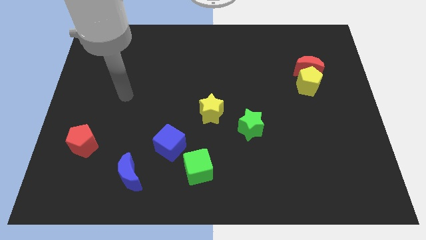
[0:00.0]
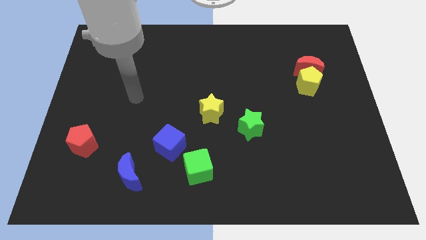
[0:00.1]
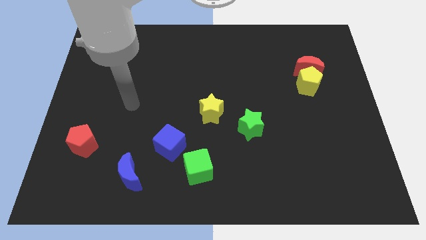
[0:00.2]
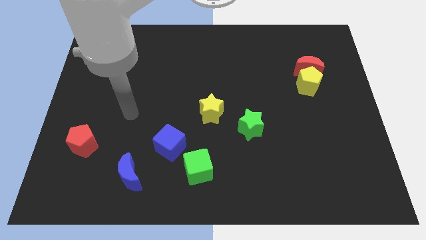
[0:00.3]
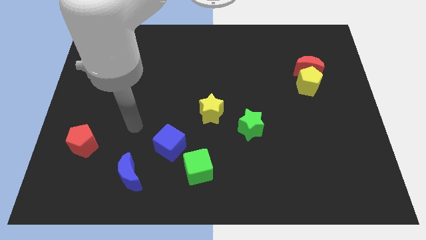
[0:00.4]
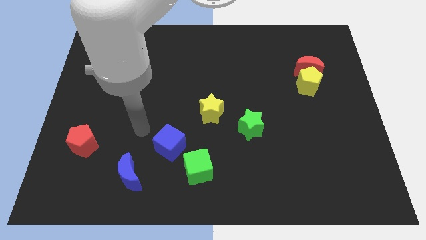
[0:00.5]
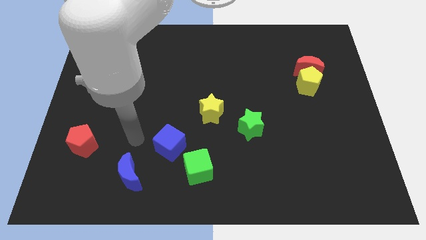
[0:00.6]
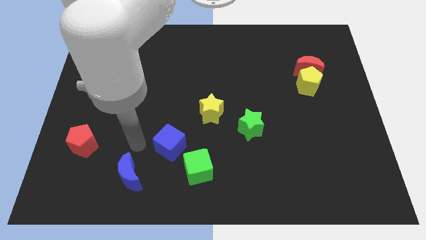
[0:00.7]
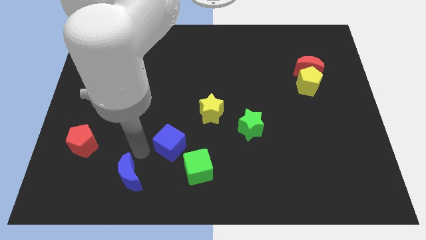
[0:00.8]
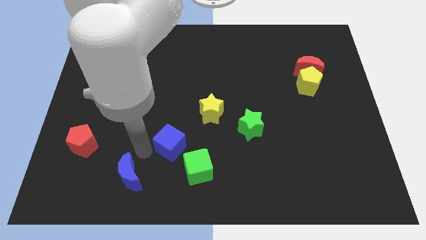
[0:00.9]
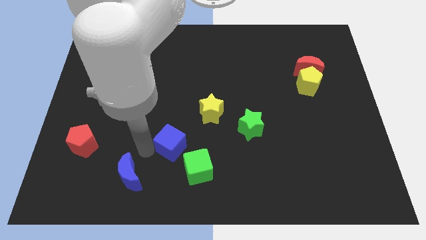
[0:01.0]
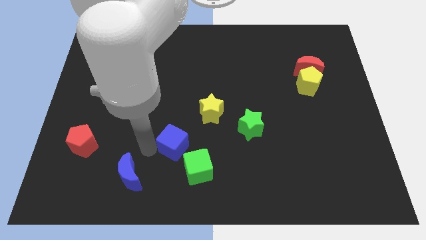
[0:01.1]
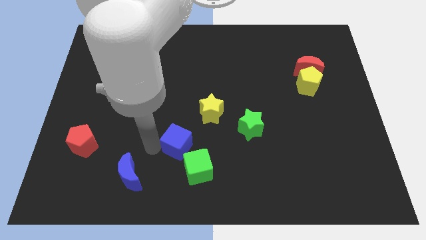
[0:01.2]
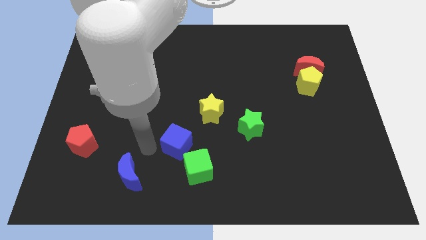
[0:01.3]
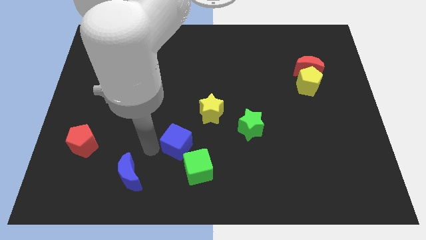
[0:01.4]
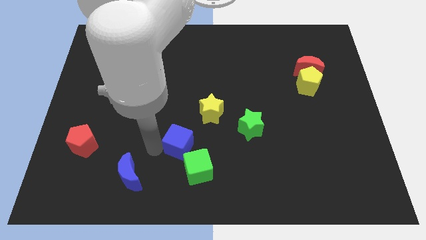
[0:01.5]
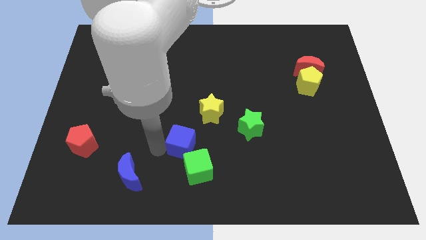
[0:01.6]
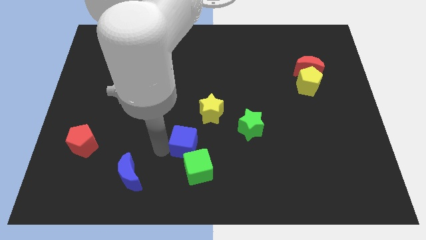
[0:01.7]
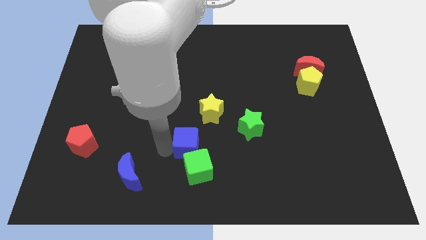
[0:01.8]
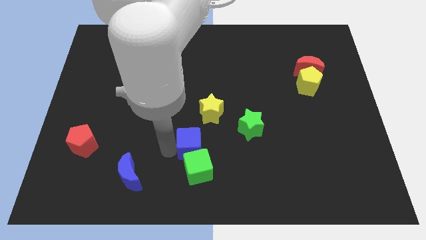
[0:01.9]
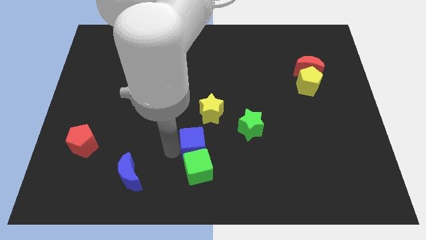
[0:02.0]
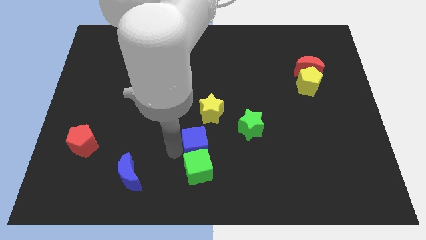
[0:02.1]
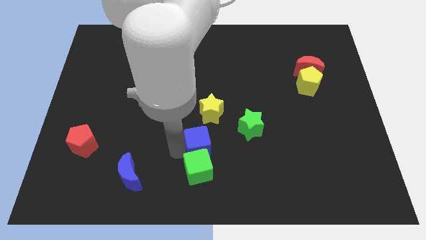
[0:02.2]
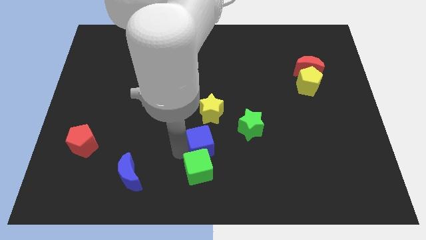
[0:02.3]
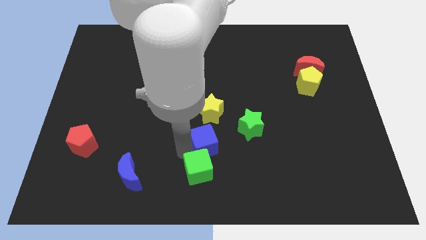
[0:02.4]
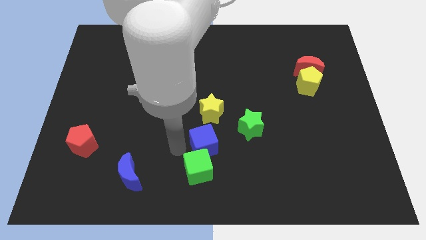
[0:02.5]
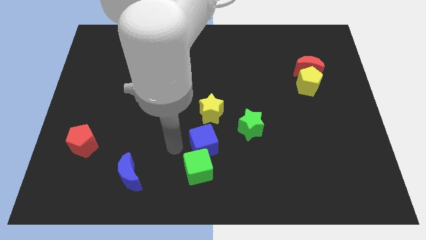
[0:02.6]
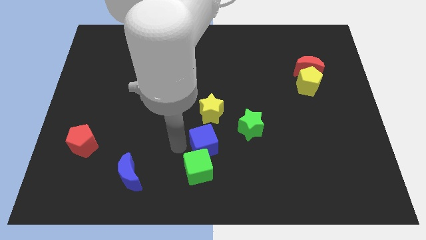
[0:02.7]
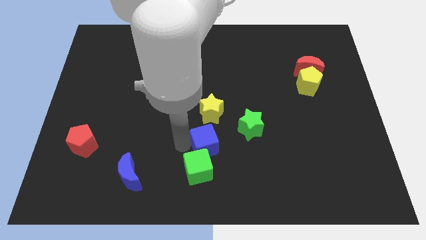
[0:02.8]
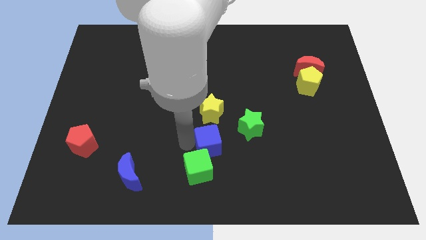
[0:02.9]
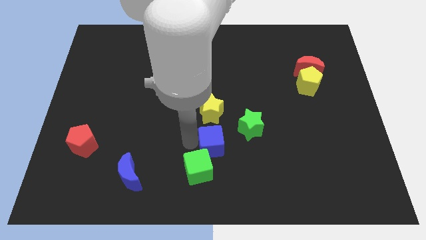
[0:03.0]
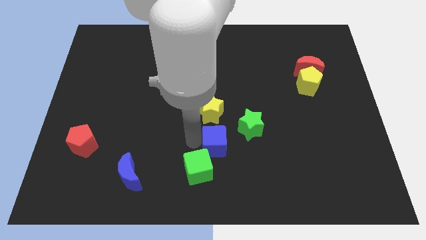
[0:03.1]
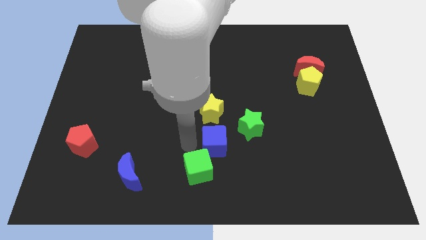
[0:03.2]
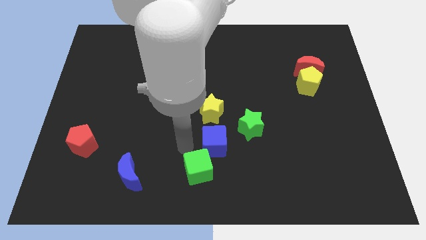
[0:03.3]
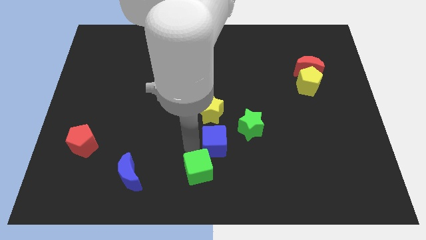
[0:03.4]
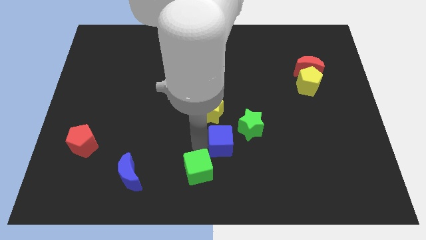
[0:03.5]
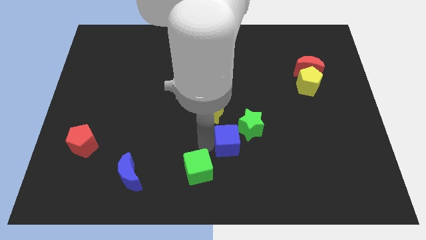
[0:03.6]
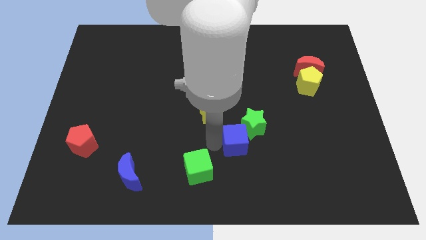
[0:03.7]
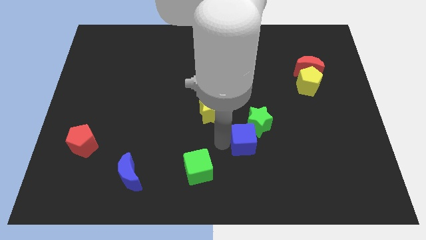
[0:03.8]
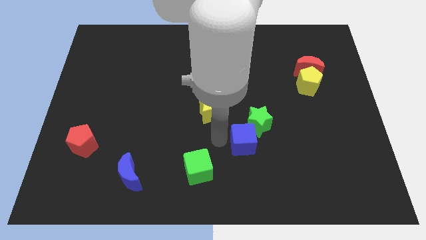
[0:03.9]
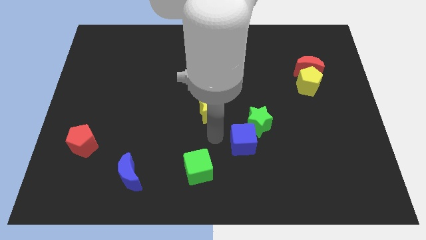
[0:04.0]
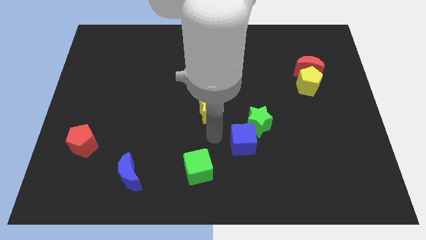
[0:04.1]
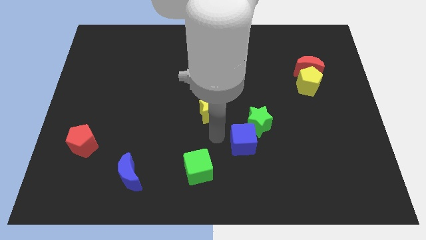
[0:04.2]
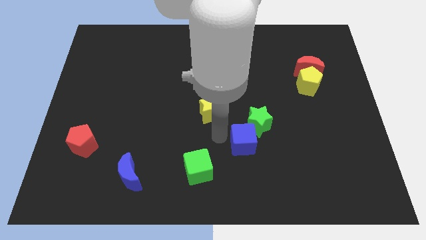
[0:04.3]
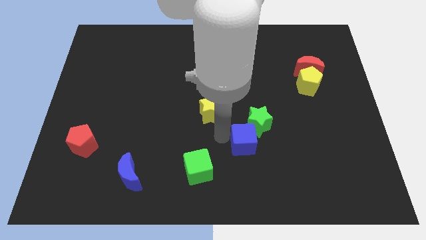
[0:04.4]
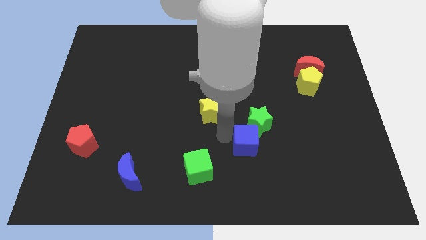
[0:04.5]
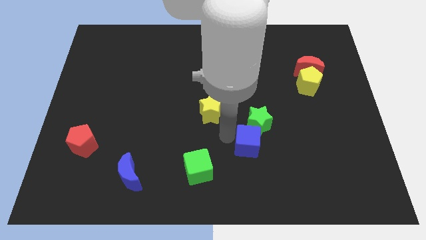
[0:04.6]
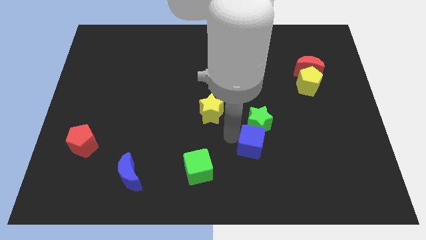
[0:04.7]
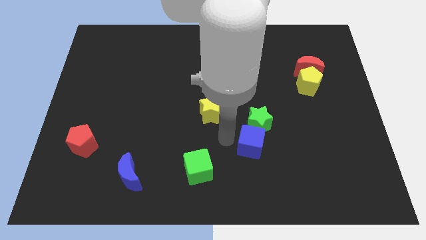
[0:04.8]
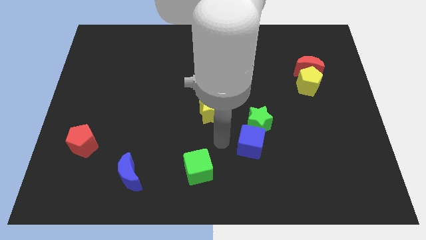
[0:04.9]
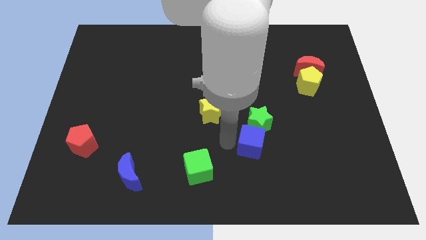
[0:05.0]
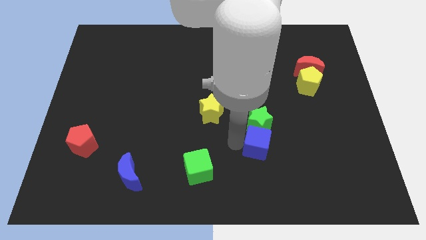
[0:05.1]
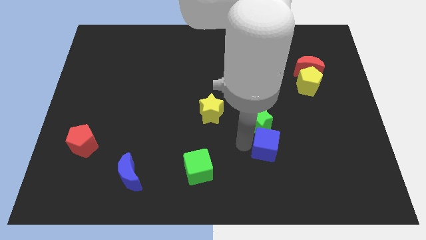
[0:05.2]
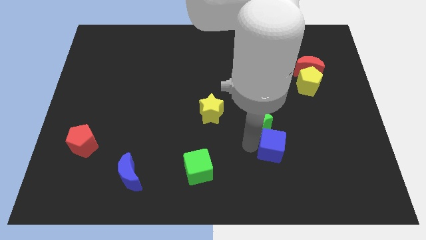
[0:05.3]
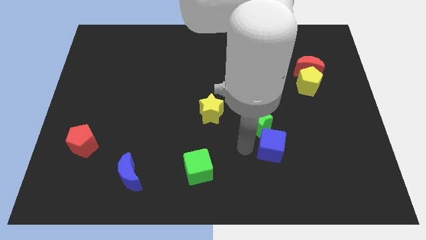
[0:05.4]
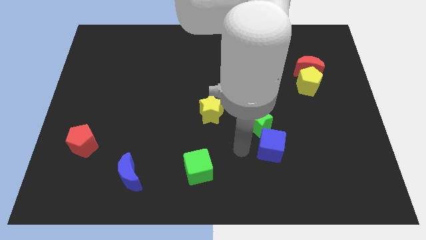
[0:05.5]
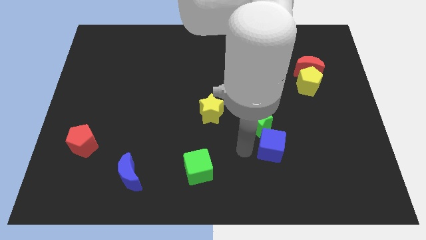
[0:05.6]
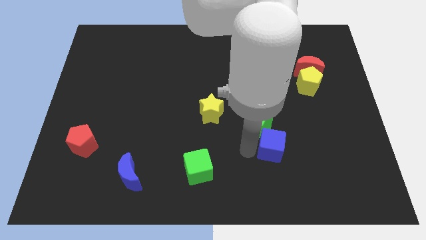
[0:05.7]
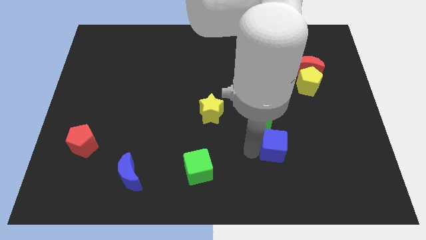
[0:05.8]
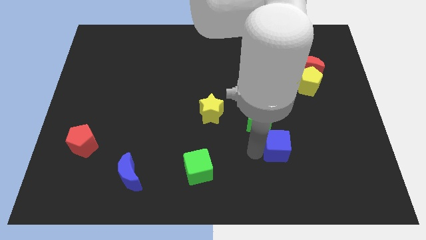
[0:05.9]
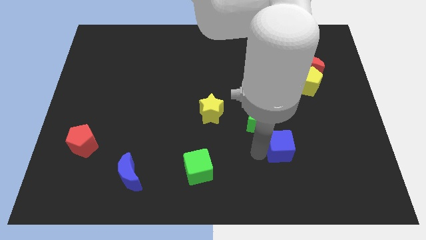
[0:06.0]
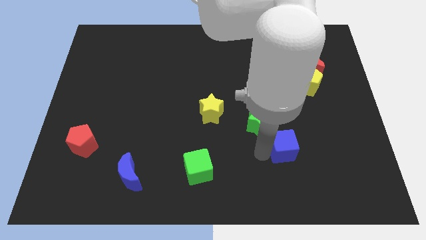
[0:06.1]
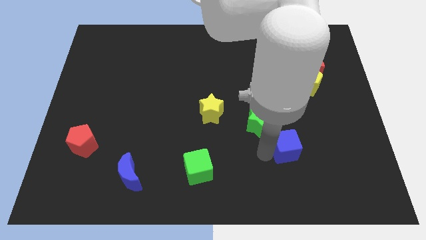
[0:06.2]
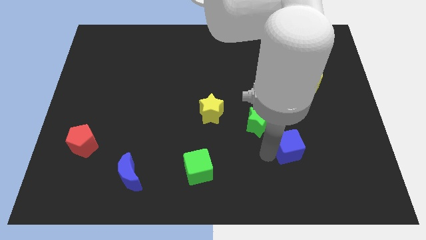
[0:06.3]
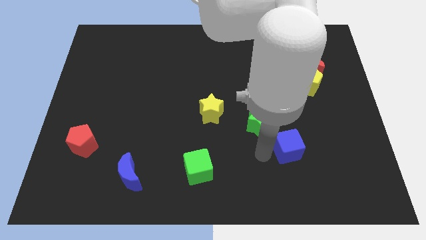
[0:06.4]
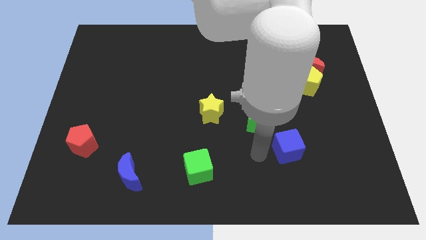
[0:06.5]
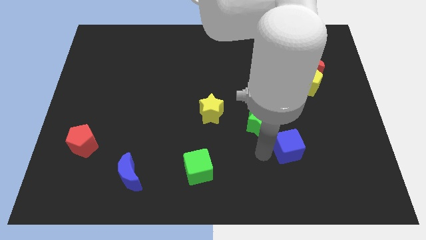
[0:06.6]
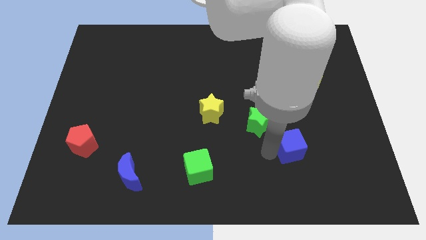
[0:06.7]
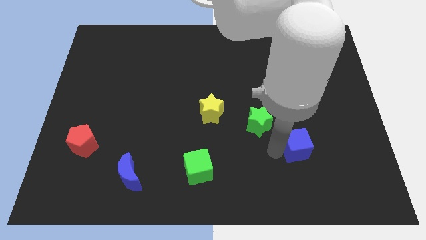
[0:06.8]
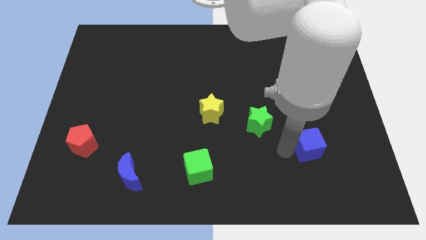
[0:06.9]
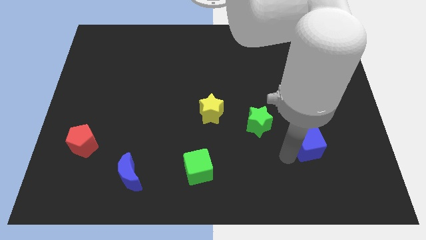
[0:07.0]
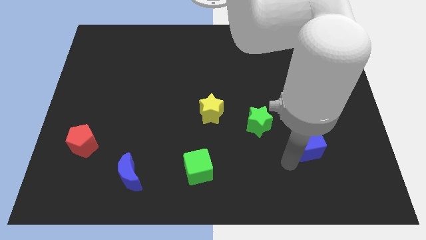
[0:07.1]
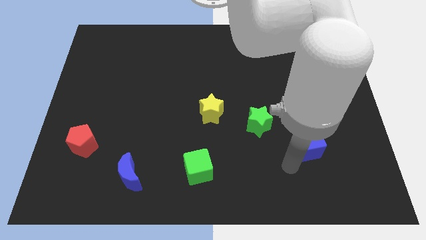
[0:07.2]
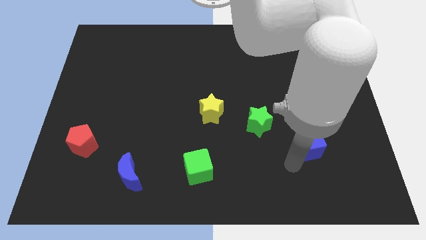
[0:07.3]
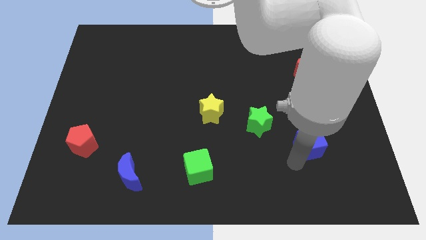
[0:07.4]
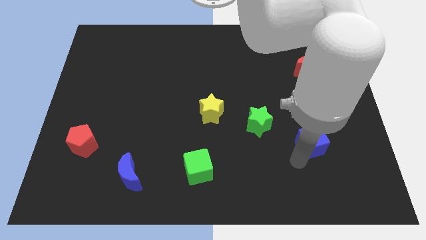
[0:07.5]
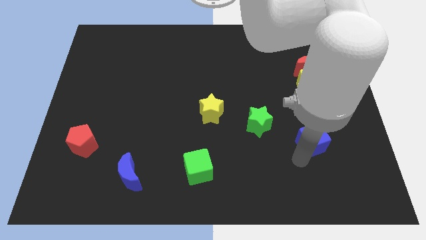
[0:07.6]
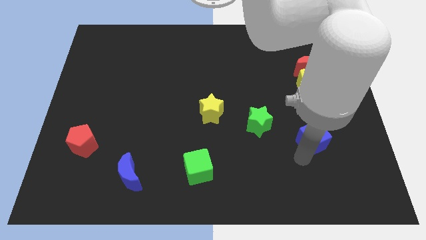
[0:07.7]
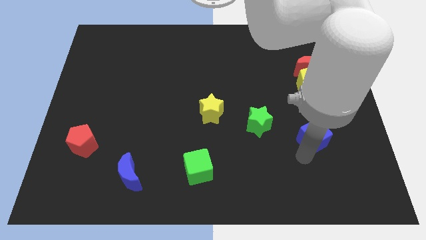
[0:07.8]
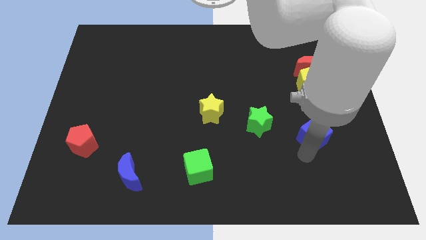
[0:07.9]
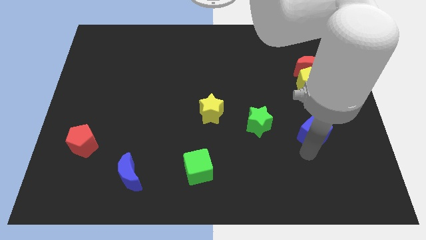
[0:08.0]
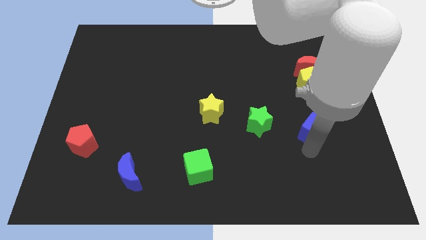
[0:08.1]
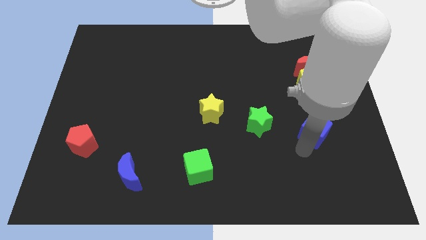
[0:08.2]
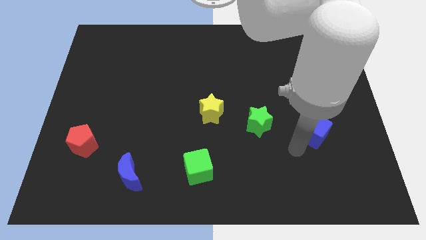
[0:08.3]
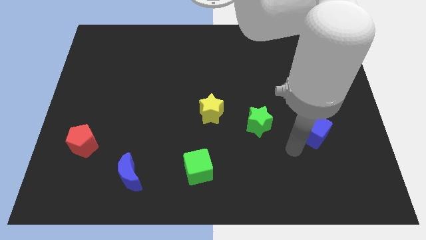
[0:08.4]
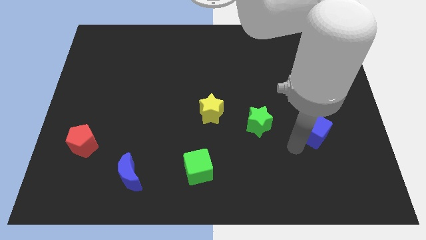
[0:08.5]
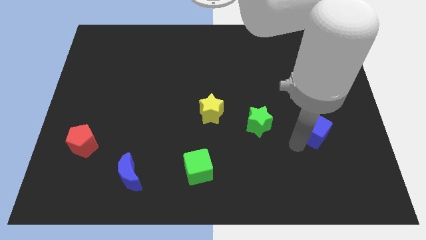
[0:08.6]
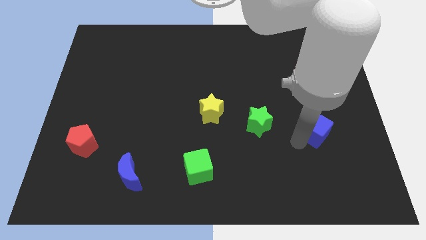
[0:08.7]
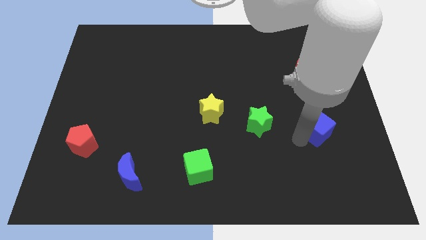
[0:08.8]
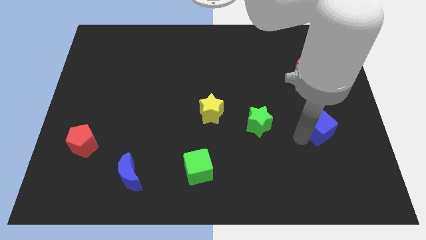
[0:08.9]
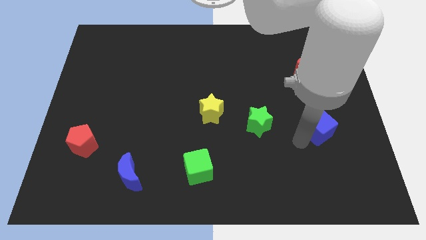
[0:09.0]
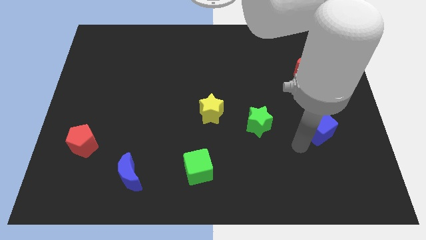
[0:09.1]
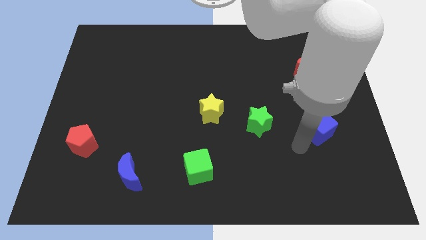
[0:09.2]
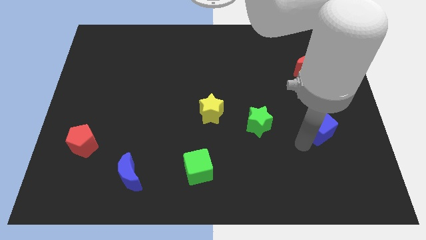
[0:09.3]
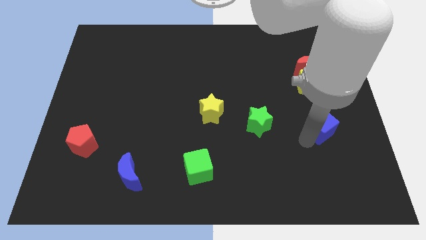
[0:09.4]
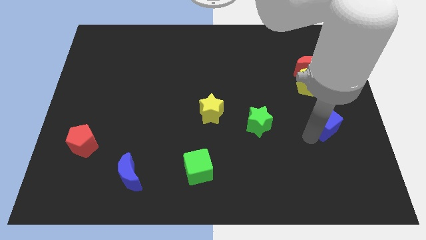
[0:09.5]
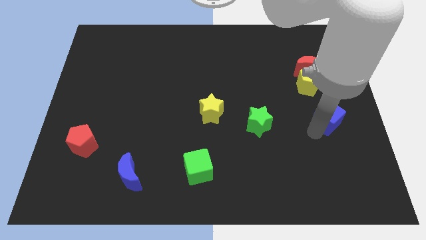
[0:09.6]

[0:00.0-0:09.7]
move the blue cube to the center right
